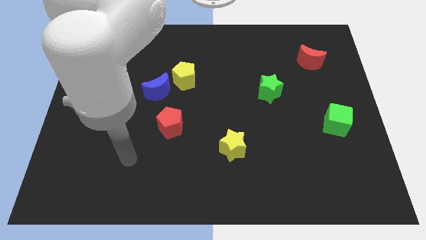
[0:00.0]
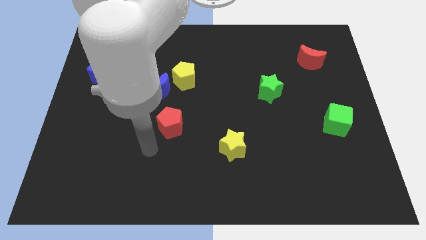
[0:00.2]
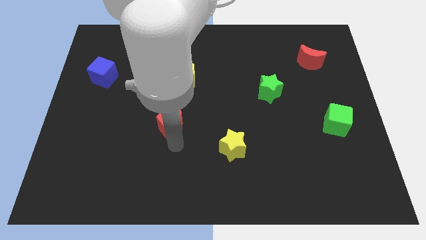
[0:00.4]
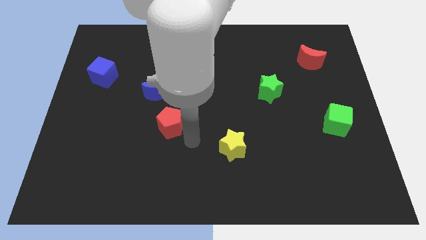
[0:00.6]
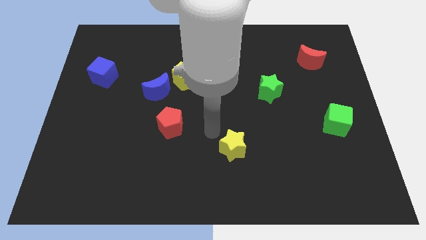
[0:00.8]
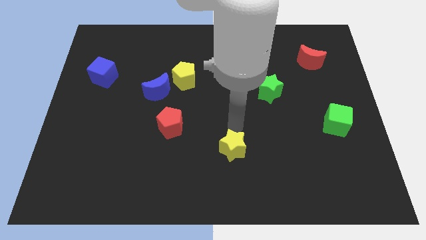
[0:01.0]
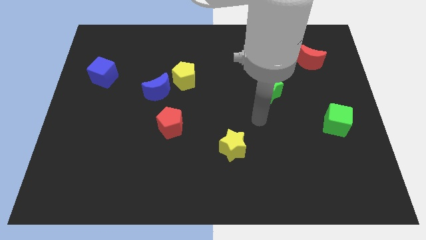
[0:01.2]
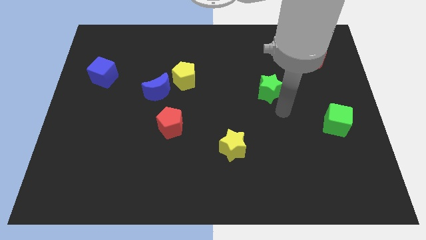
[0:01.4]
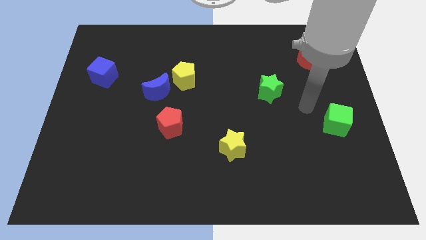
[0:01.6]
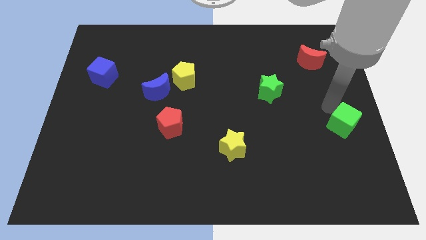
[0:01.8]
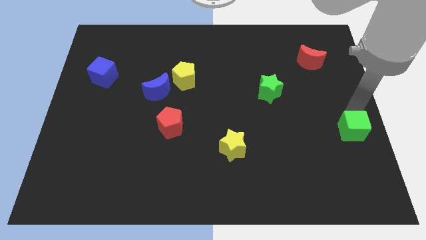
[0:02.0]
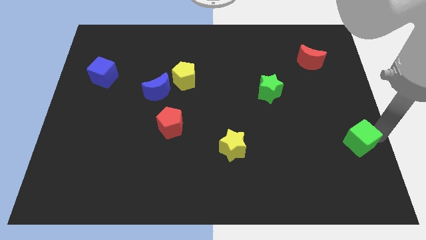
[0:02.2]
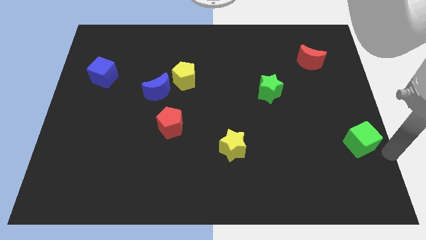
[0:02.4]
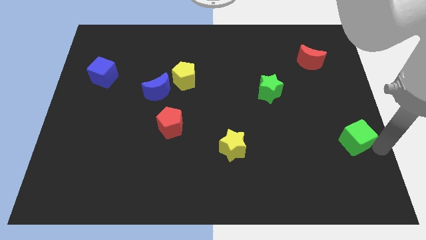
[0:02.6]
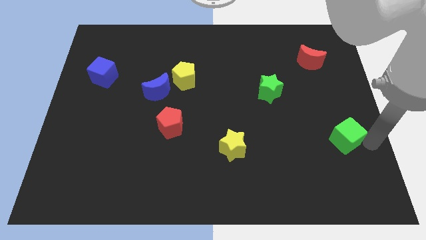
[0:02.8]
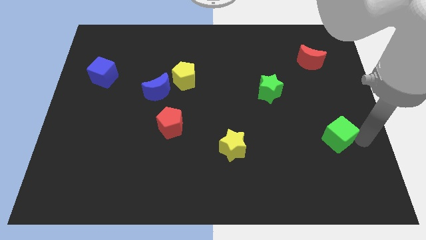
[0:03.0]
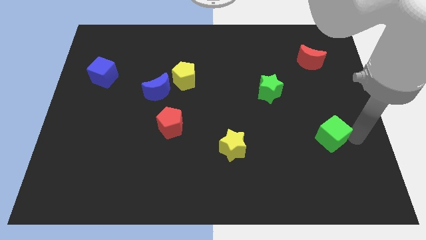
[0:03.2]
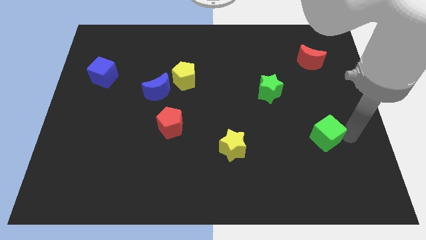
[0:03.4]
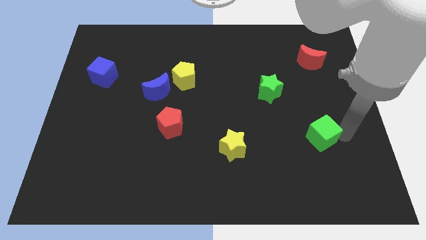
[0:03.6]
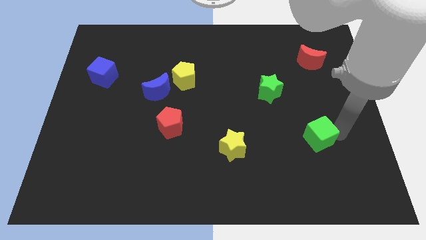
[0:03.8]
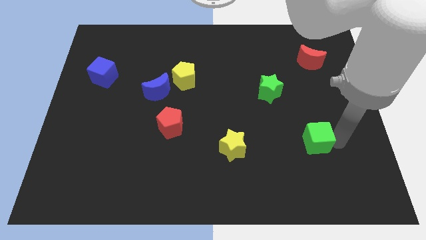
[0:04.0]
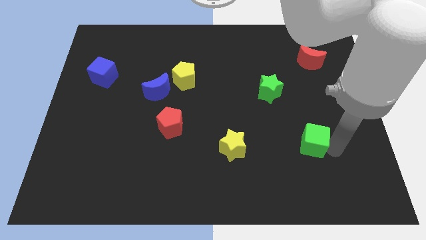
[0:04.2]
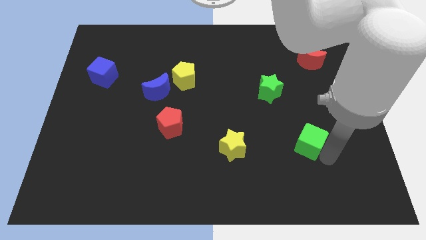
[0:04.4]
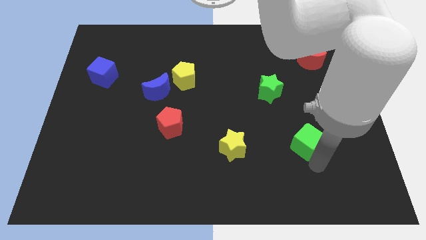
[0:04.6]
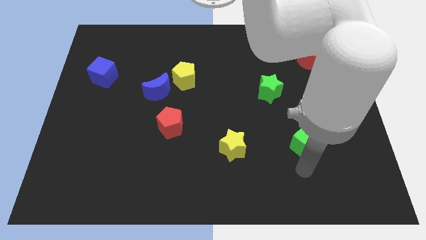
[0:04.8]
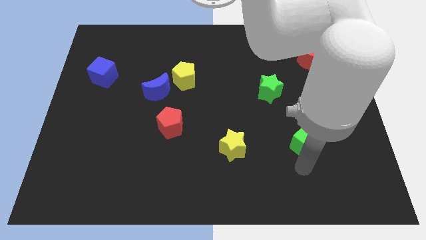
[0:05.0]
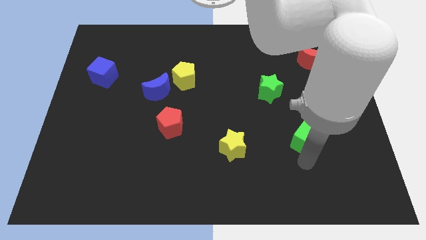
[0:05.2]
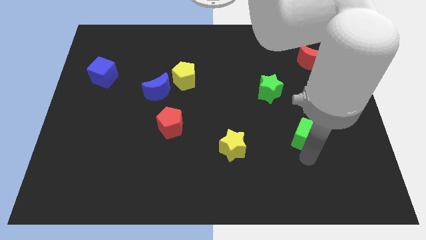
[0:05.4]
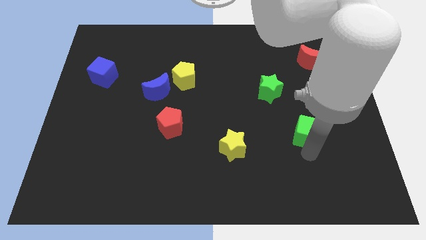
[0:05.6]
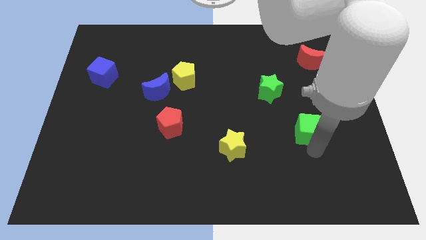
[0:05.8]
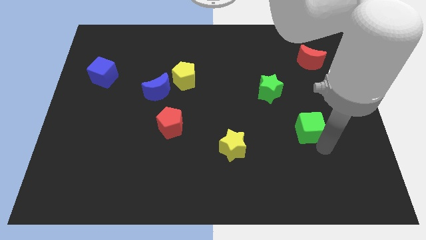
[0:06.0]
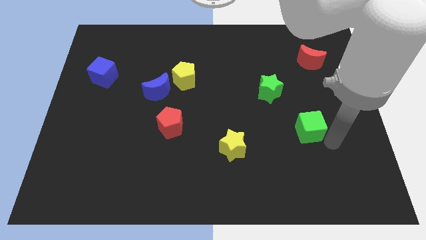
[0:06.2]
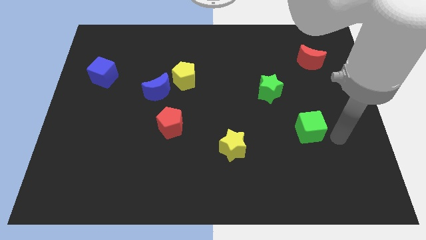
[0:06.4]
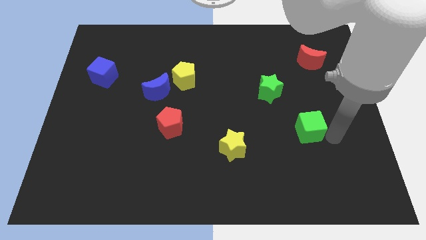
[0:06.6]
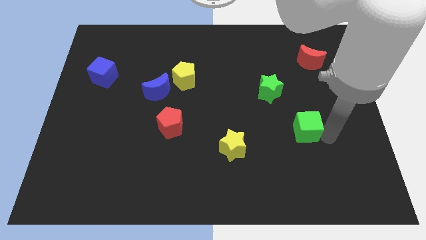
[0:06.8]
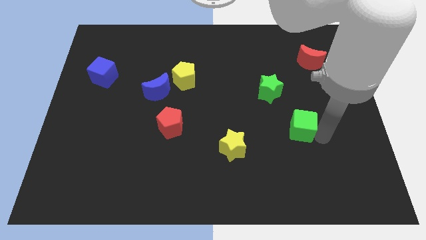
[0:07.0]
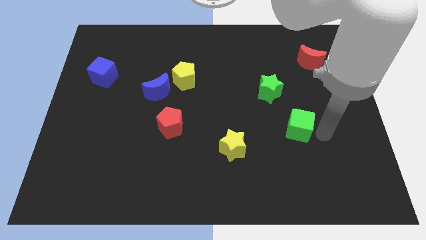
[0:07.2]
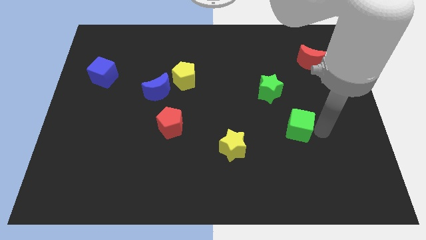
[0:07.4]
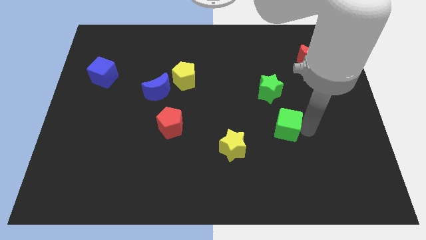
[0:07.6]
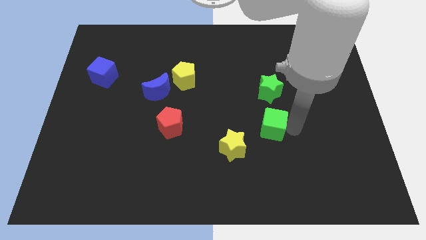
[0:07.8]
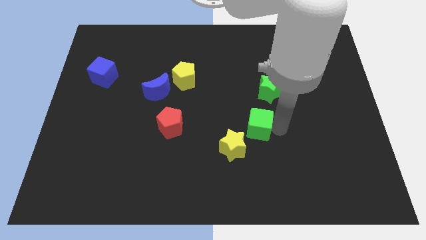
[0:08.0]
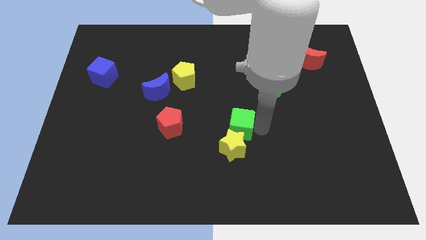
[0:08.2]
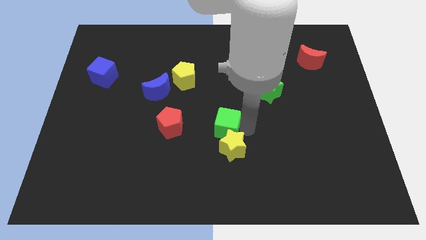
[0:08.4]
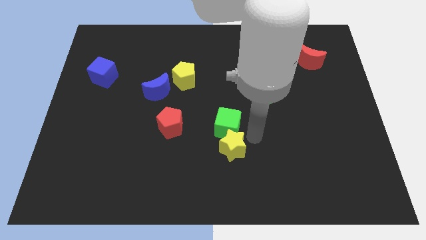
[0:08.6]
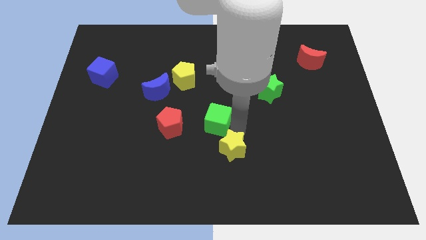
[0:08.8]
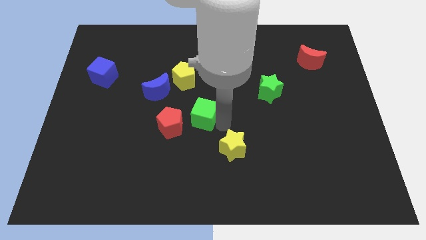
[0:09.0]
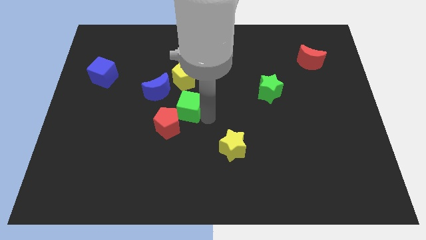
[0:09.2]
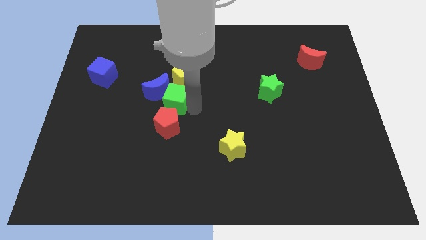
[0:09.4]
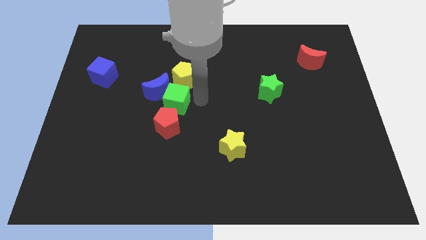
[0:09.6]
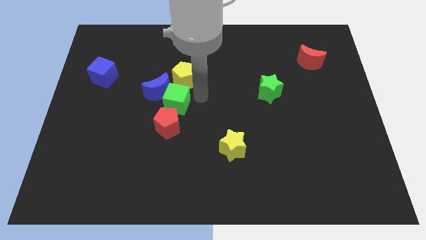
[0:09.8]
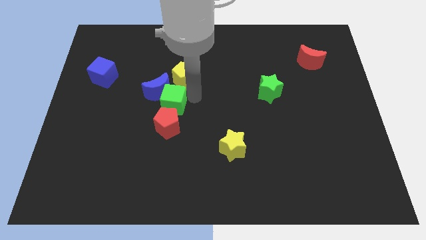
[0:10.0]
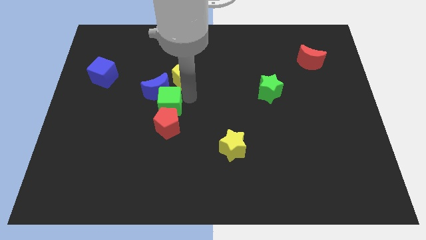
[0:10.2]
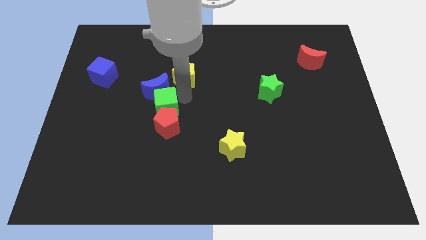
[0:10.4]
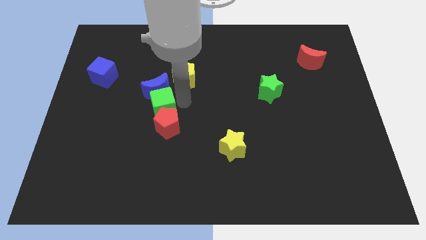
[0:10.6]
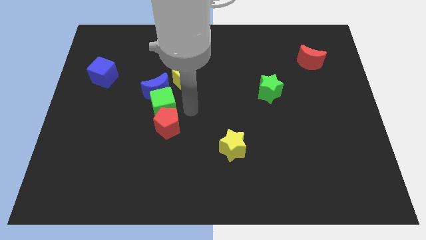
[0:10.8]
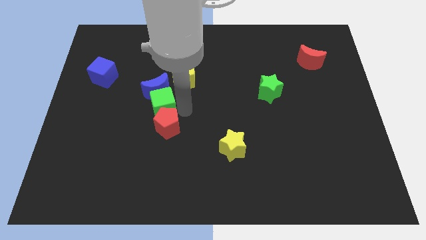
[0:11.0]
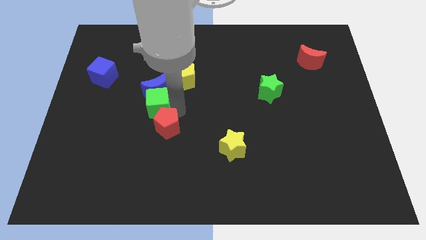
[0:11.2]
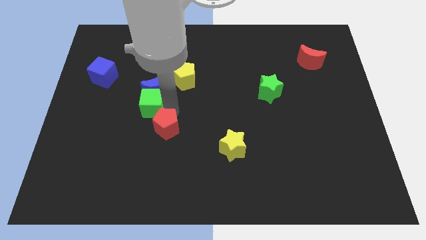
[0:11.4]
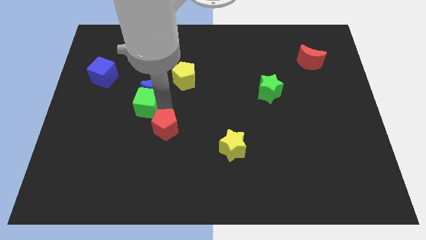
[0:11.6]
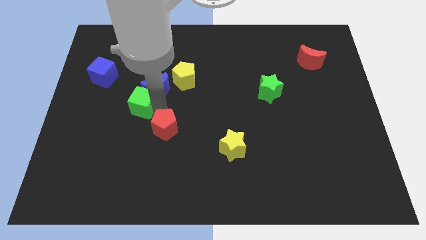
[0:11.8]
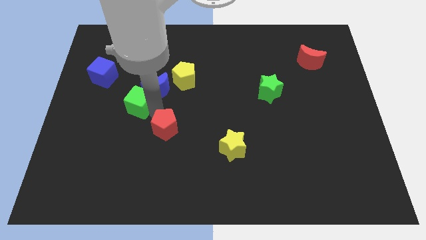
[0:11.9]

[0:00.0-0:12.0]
push the green cube to the left of the blue moon

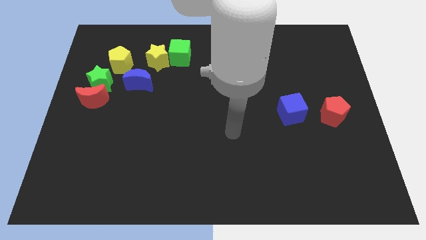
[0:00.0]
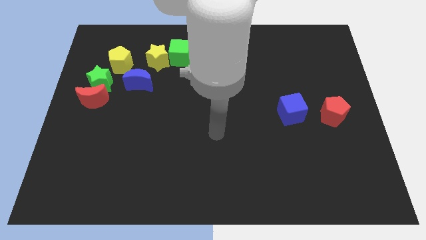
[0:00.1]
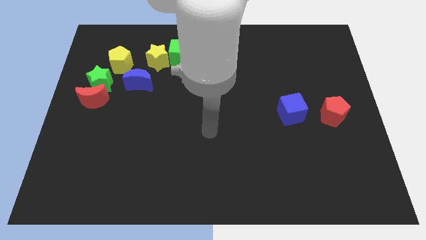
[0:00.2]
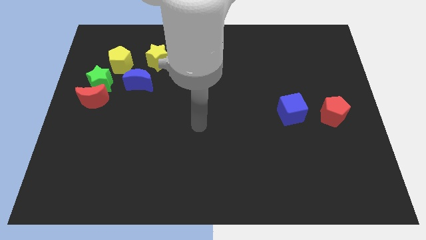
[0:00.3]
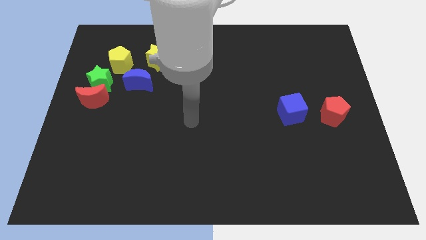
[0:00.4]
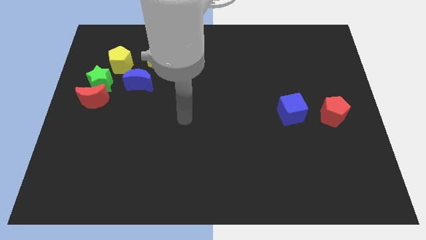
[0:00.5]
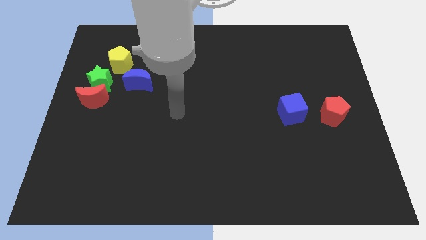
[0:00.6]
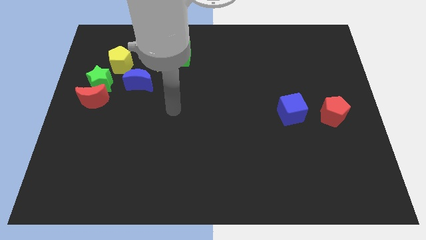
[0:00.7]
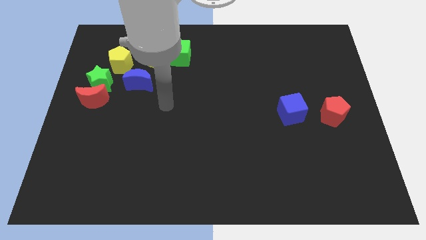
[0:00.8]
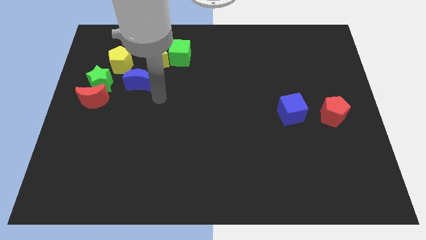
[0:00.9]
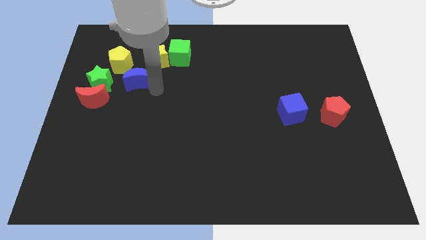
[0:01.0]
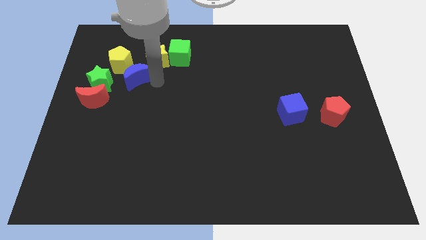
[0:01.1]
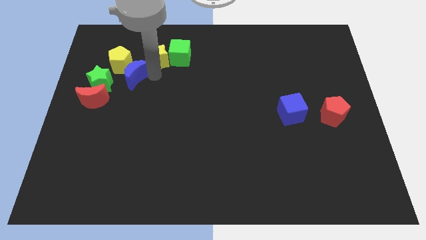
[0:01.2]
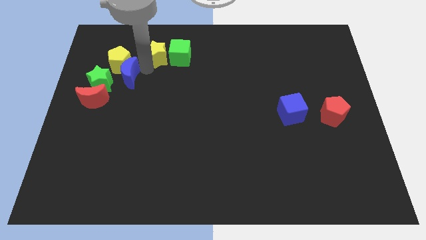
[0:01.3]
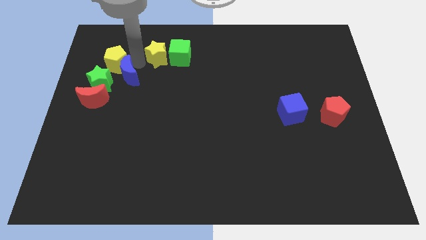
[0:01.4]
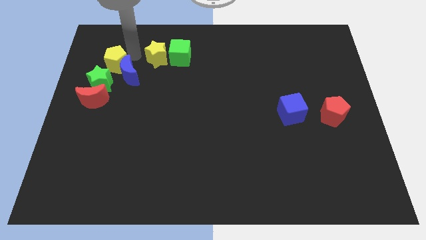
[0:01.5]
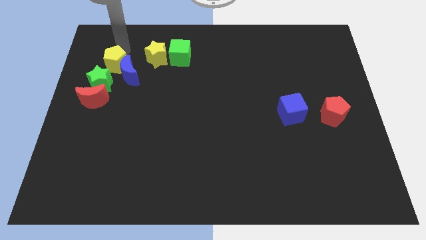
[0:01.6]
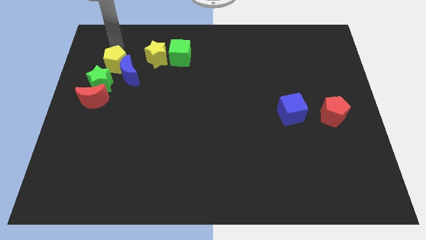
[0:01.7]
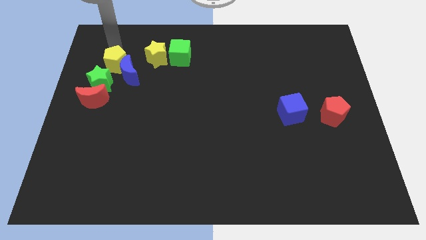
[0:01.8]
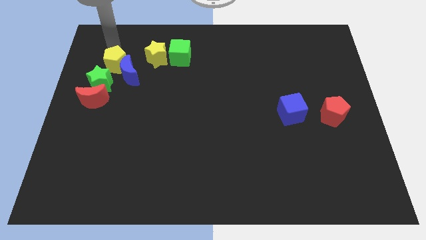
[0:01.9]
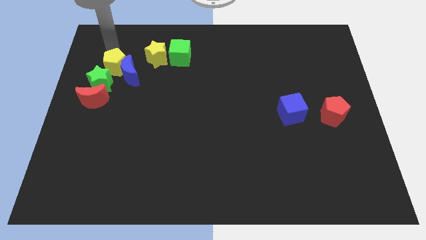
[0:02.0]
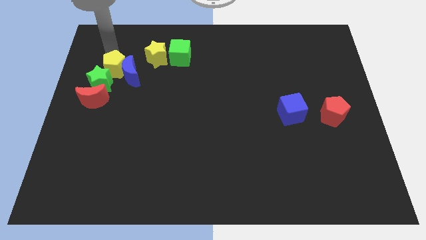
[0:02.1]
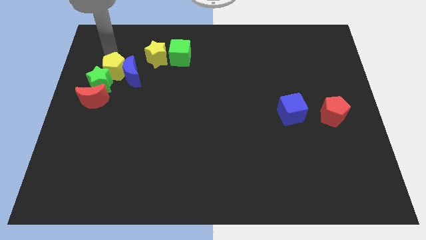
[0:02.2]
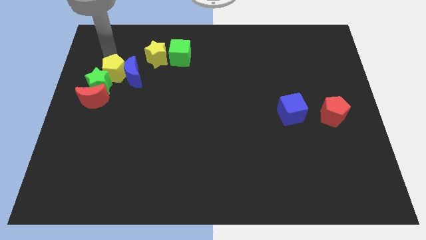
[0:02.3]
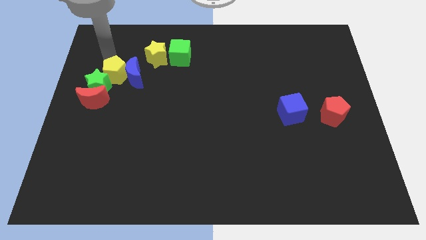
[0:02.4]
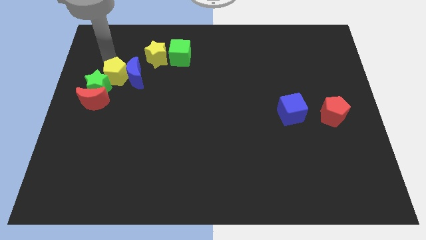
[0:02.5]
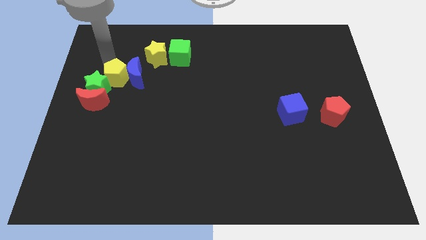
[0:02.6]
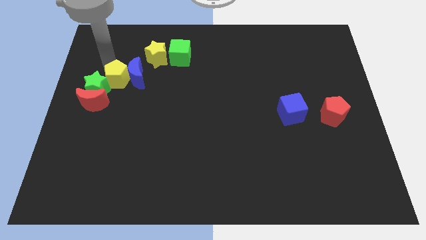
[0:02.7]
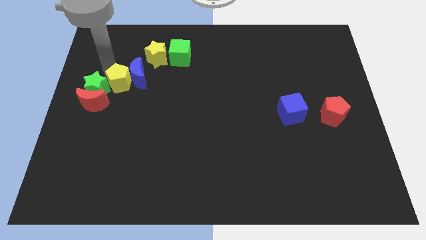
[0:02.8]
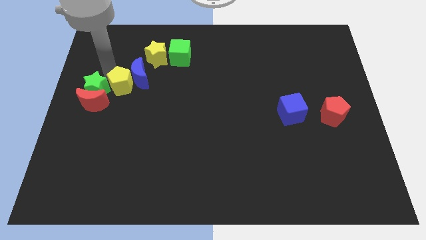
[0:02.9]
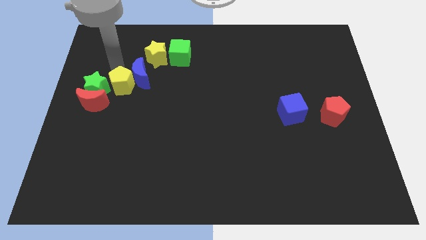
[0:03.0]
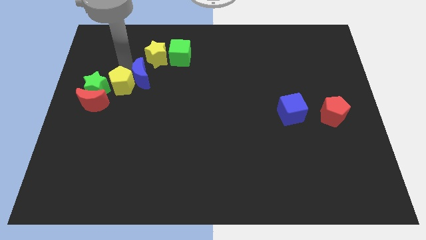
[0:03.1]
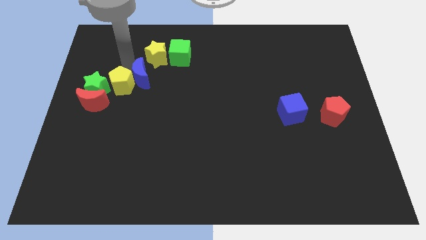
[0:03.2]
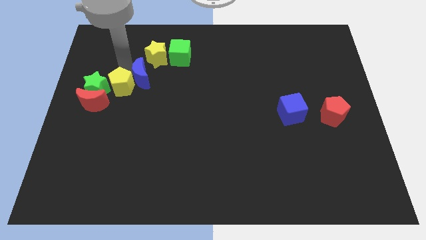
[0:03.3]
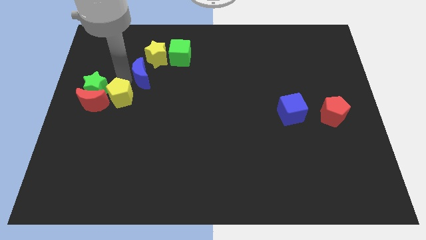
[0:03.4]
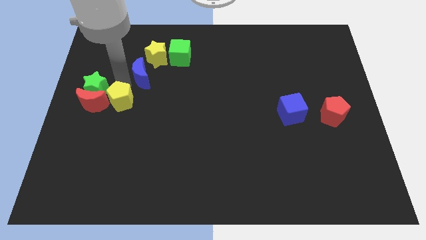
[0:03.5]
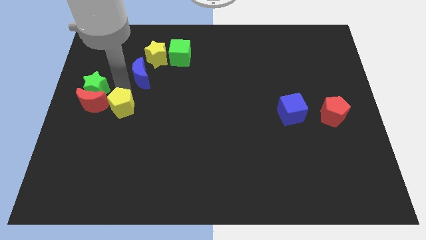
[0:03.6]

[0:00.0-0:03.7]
put the yellow pentagon diagonally down and to the right of the red moon
